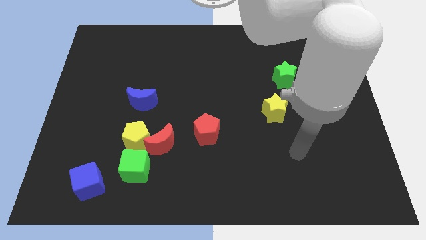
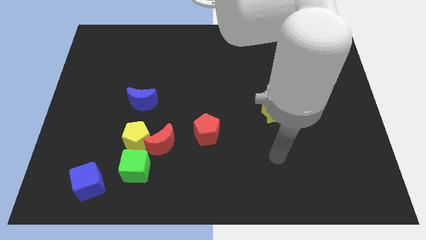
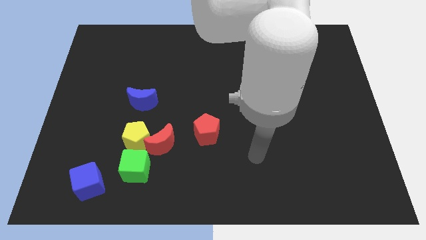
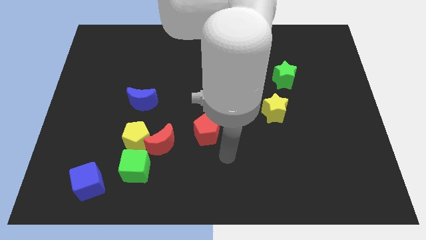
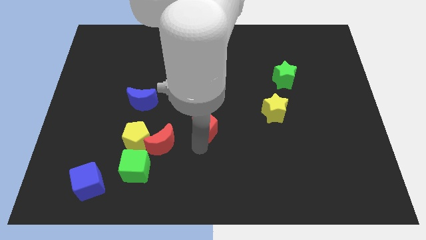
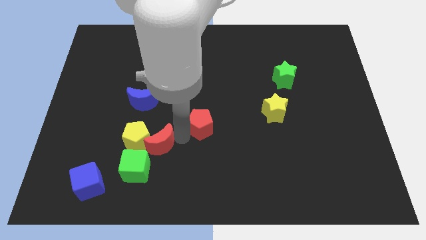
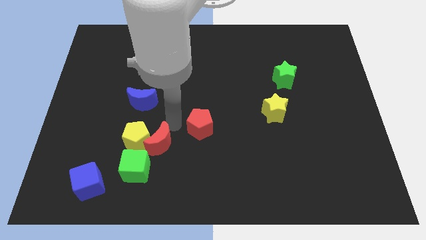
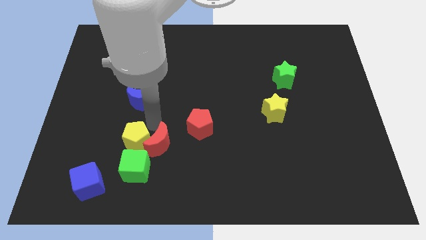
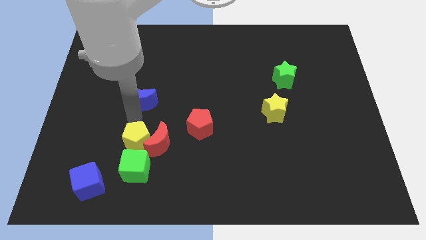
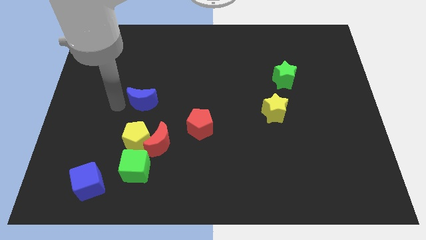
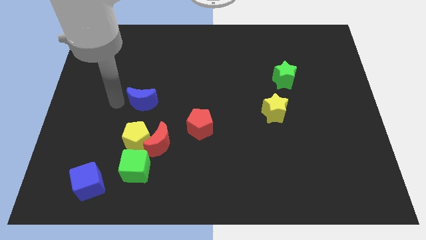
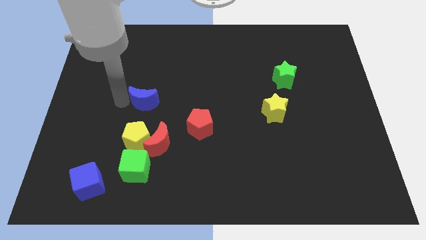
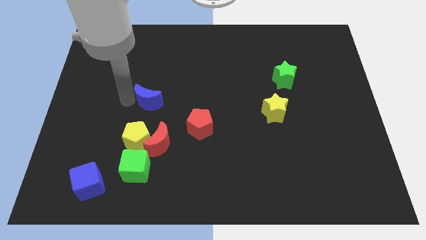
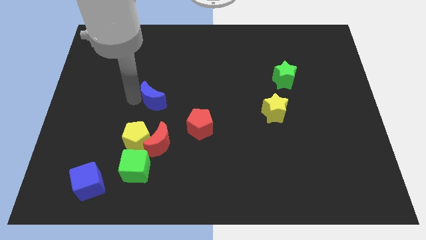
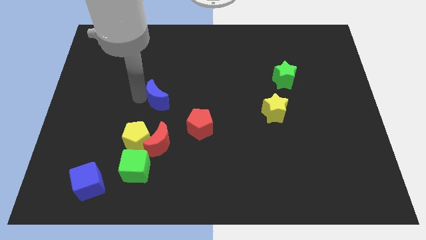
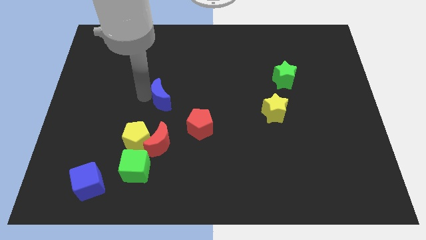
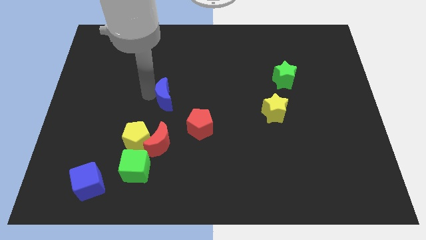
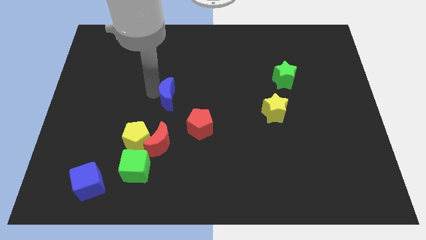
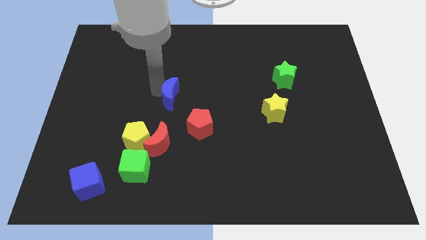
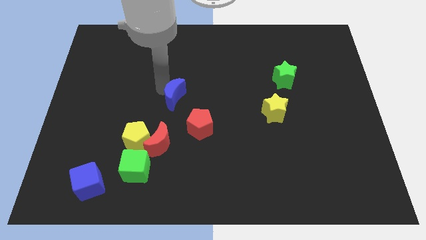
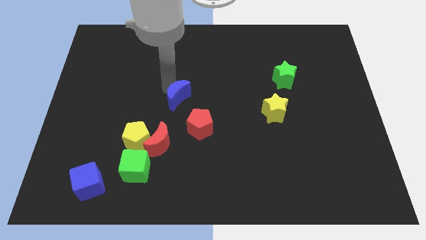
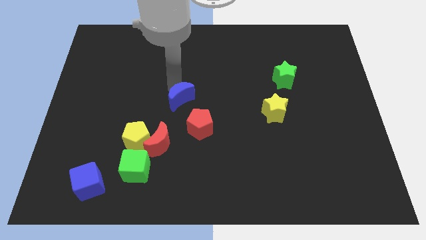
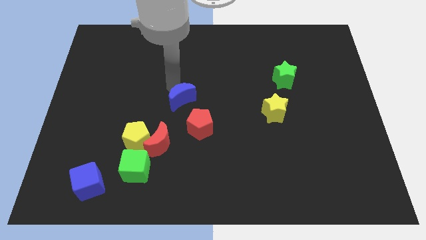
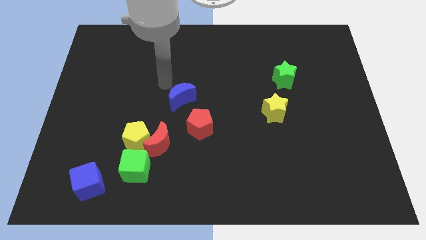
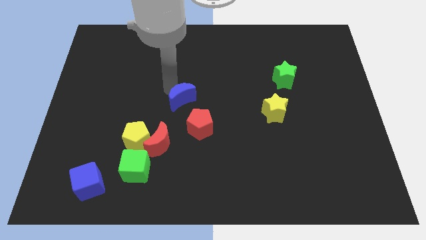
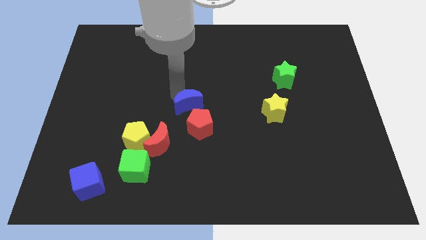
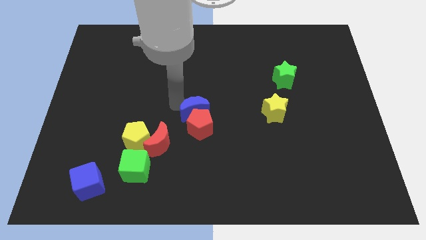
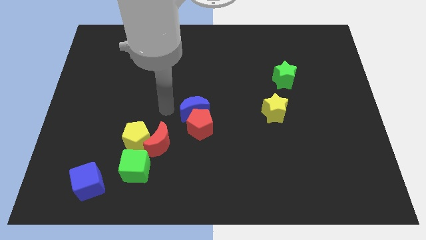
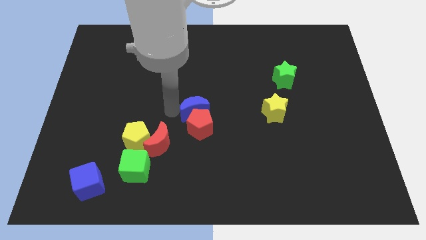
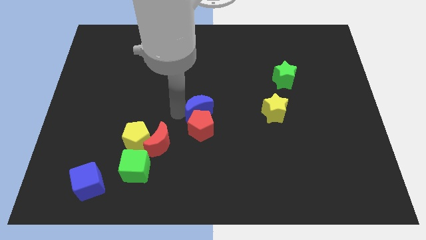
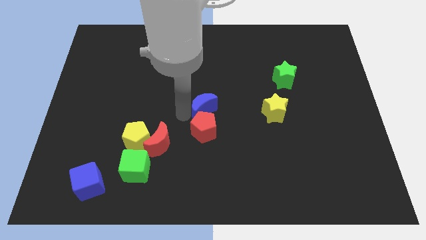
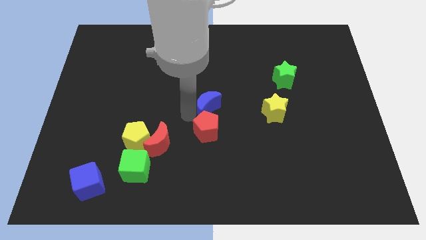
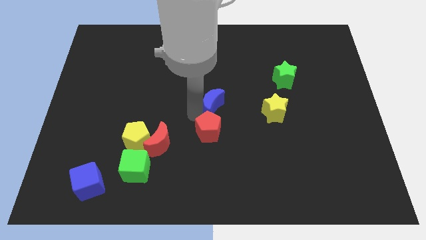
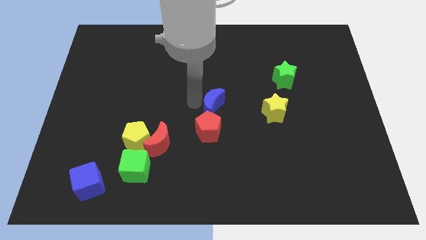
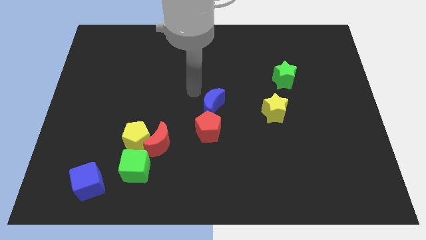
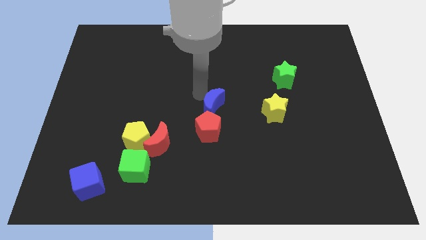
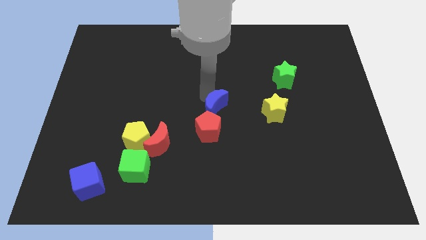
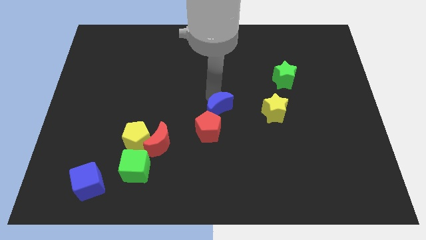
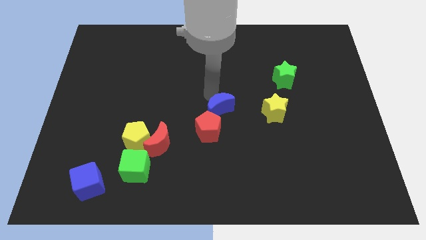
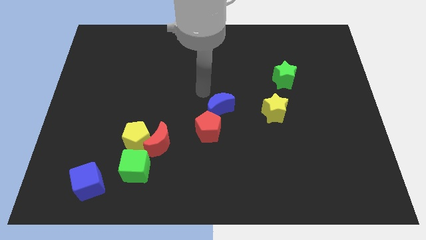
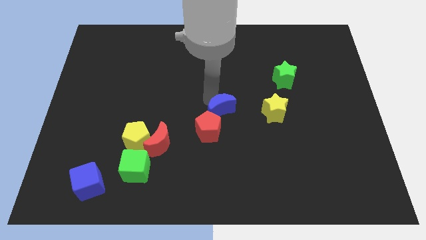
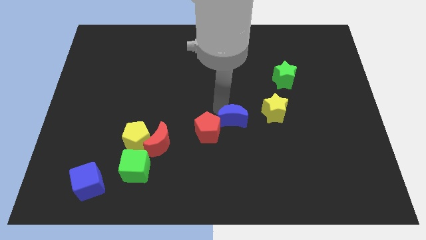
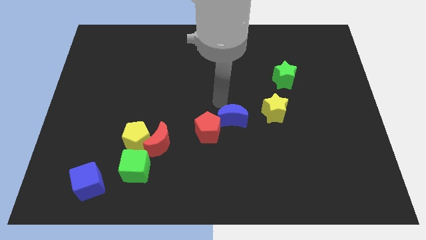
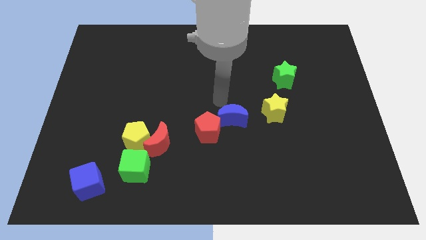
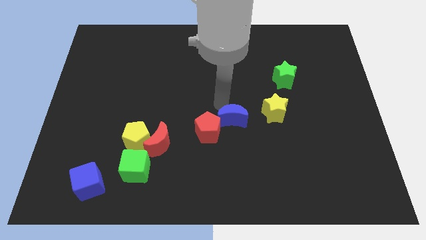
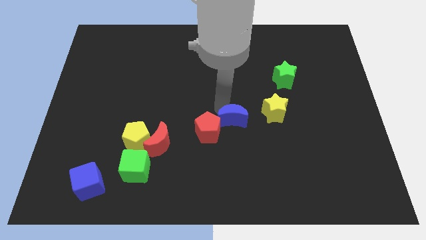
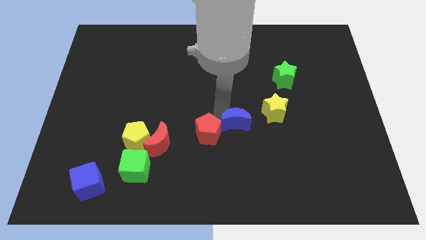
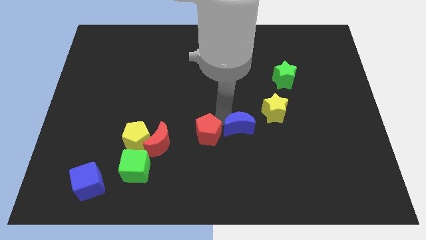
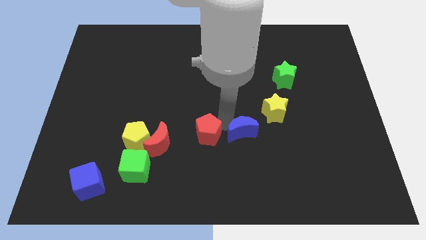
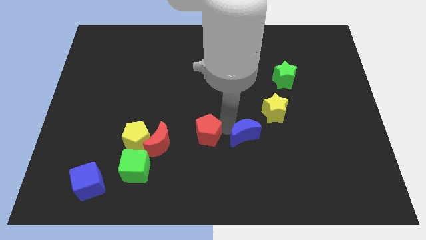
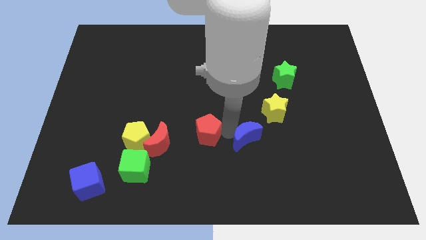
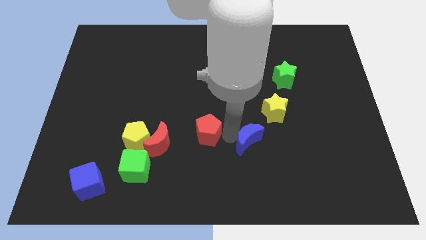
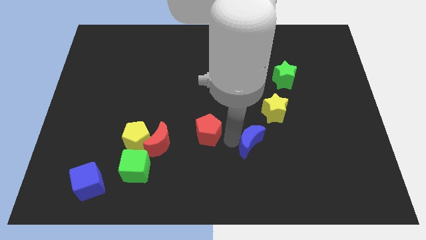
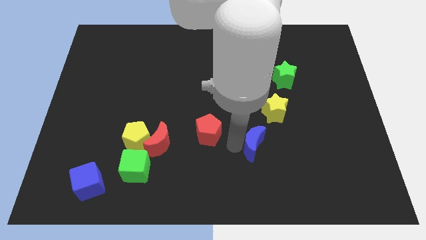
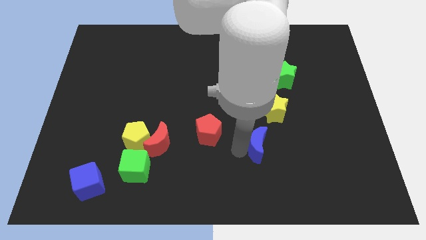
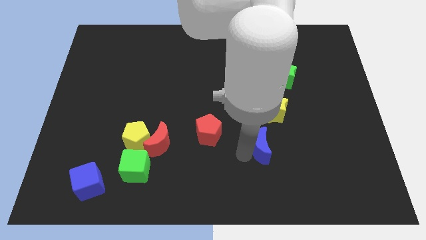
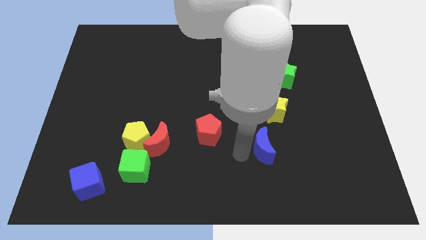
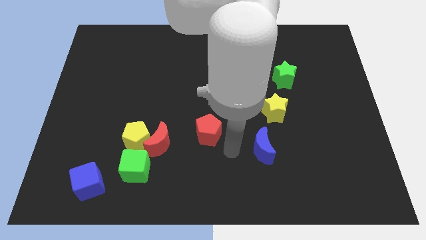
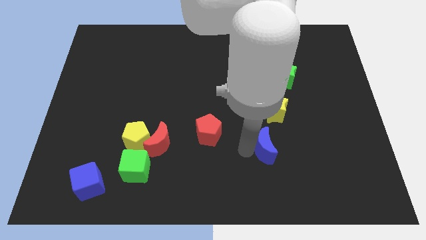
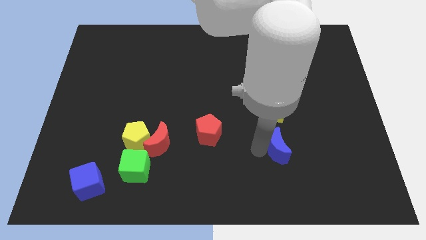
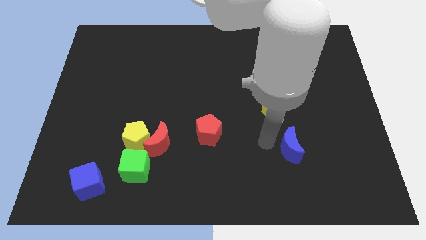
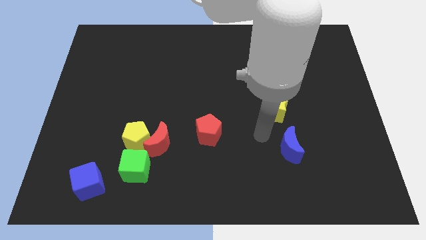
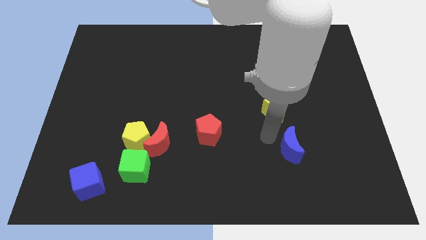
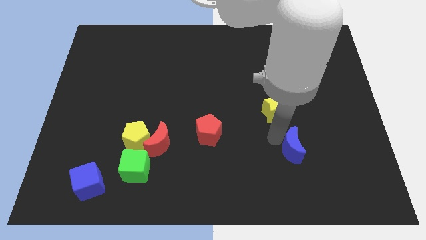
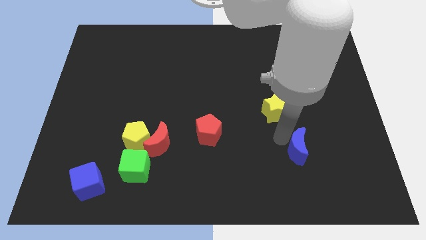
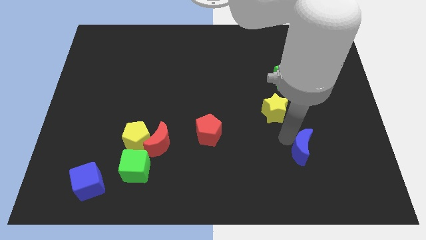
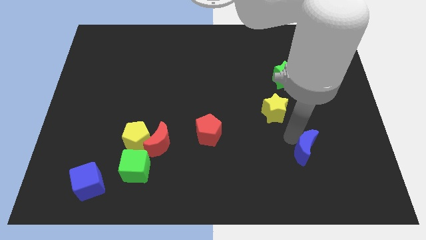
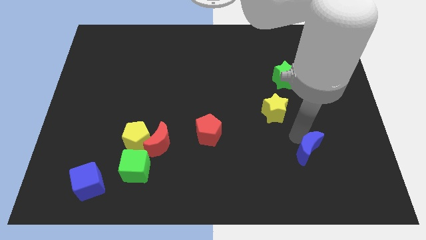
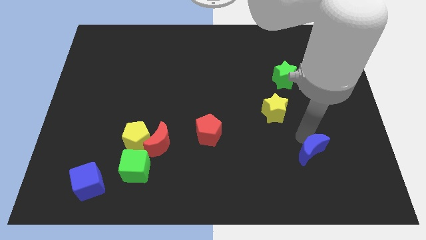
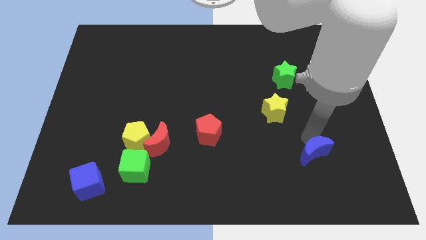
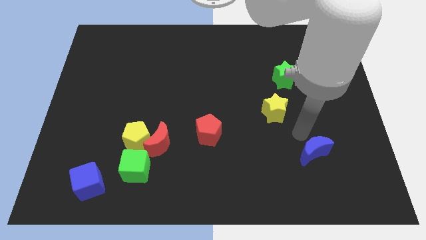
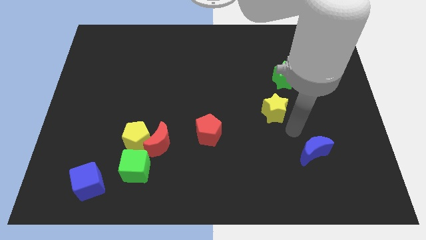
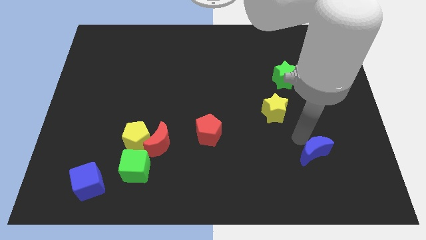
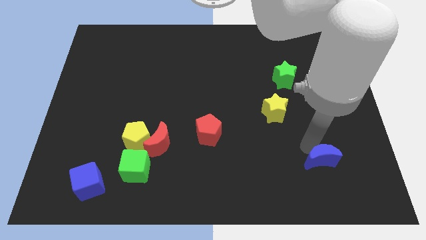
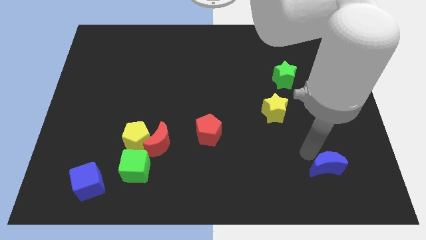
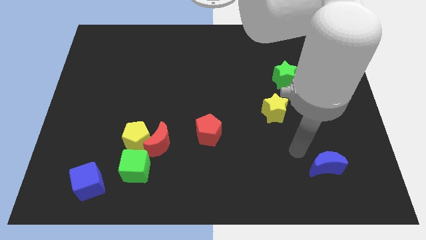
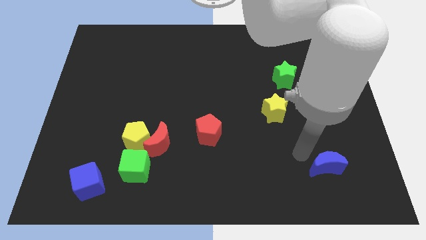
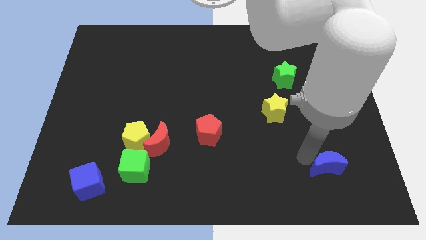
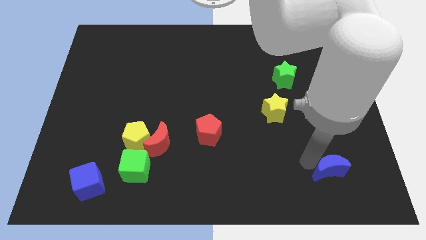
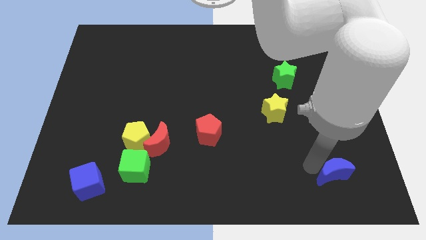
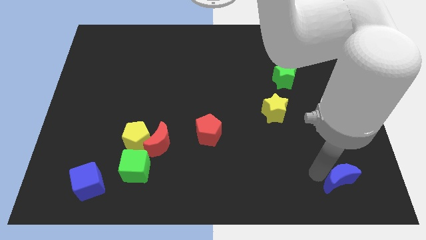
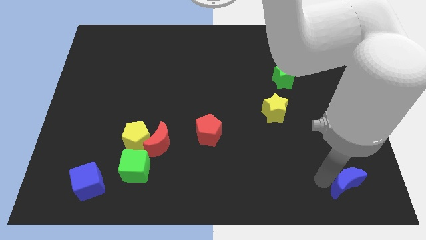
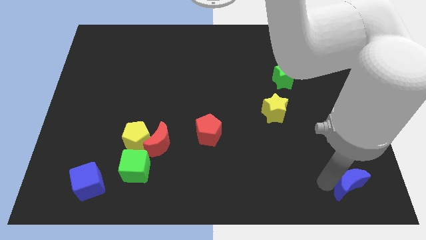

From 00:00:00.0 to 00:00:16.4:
put the blue moon to the bottom right corner
